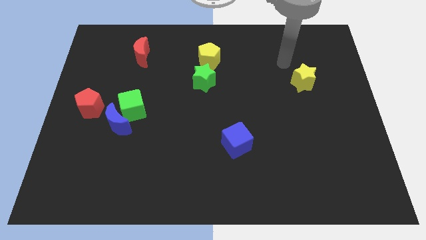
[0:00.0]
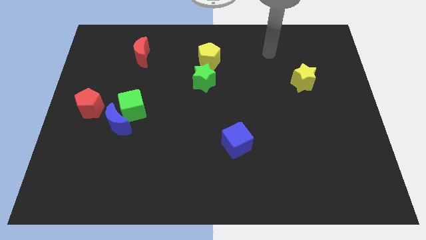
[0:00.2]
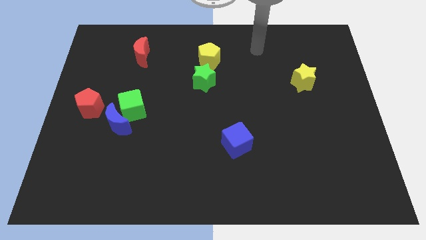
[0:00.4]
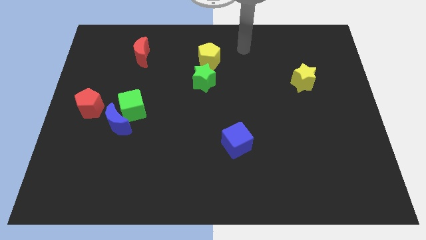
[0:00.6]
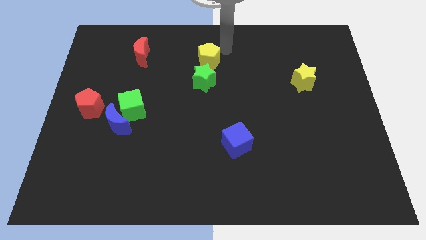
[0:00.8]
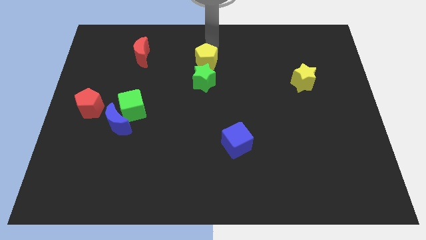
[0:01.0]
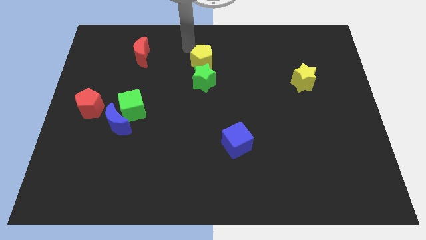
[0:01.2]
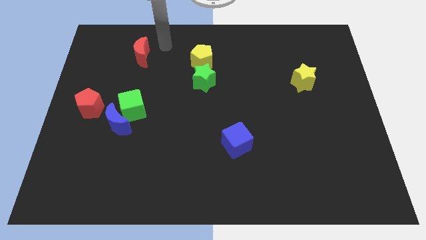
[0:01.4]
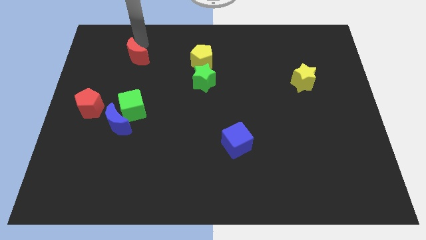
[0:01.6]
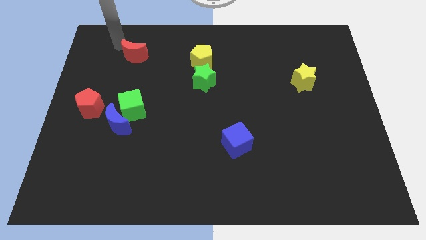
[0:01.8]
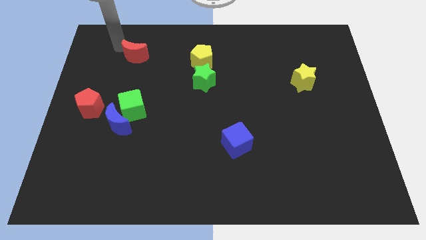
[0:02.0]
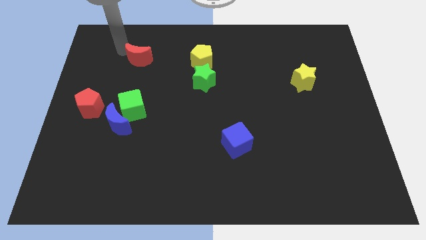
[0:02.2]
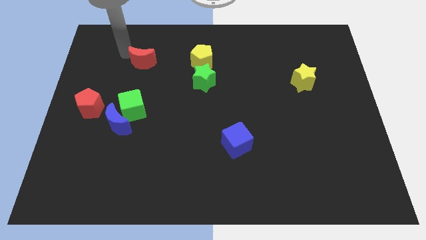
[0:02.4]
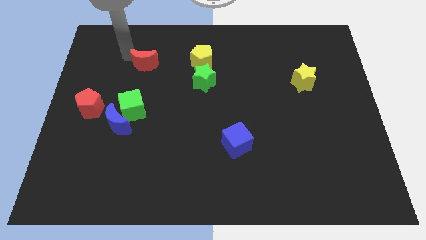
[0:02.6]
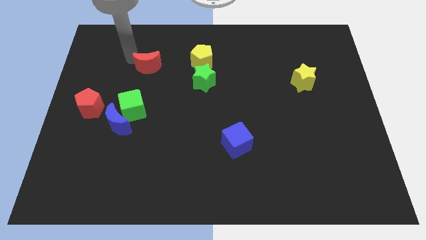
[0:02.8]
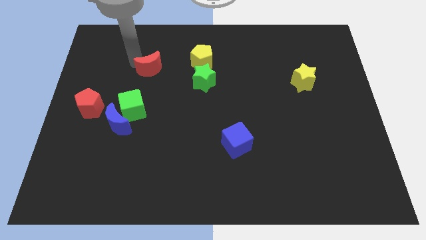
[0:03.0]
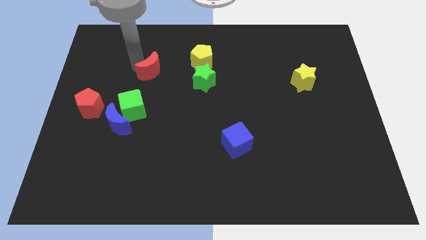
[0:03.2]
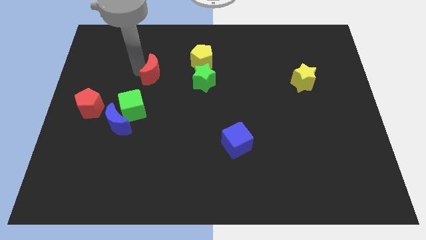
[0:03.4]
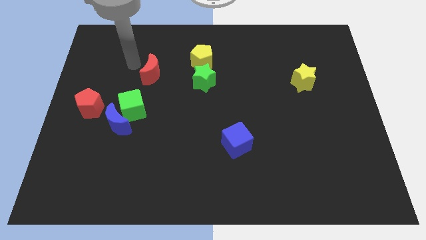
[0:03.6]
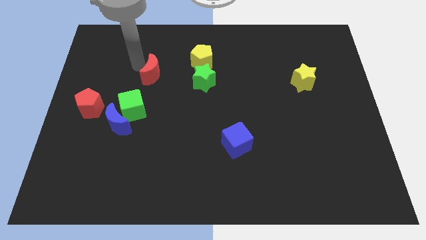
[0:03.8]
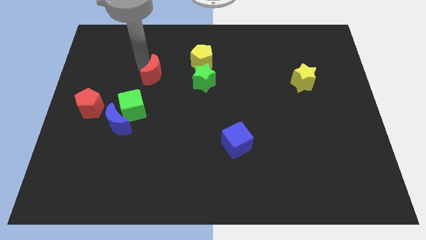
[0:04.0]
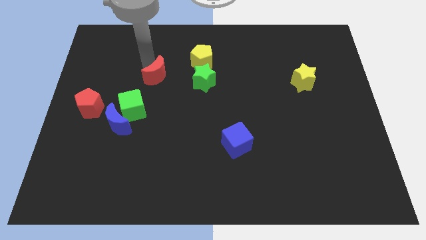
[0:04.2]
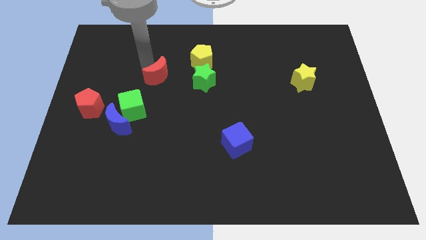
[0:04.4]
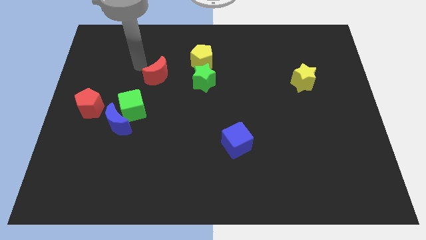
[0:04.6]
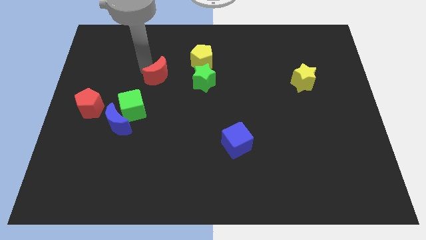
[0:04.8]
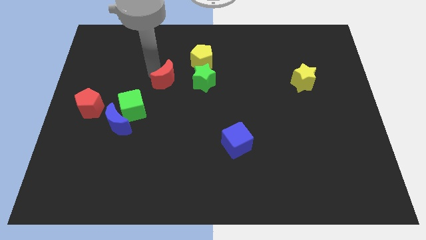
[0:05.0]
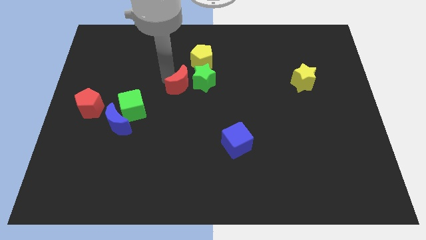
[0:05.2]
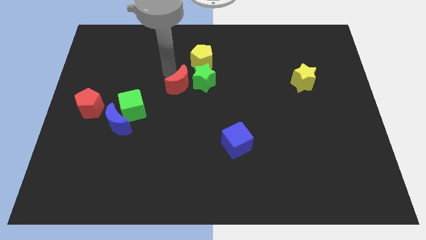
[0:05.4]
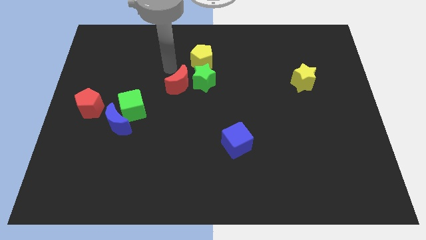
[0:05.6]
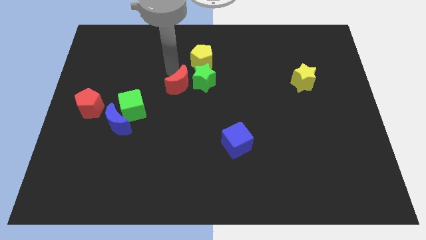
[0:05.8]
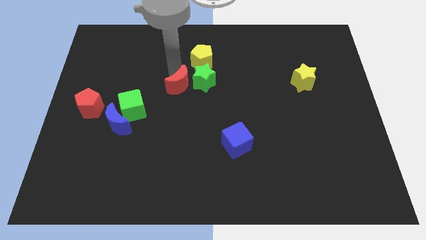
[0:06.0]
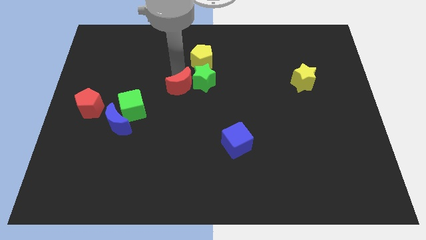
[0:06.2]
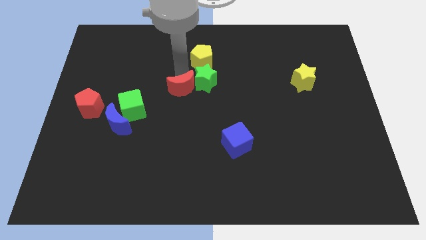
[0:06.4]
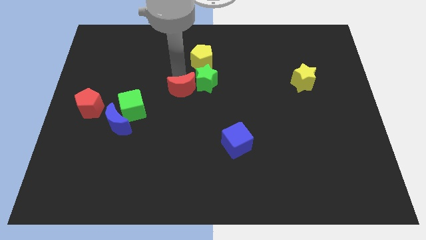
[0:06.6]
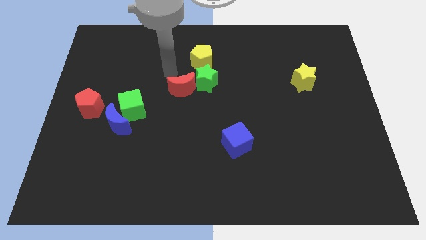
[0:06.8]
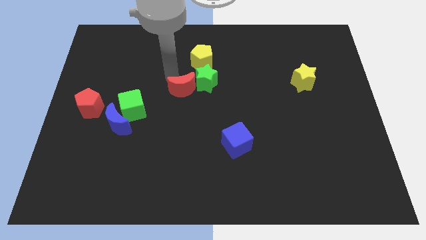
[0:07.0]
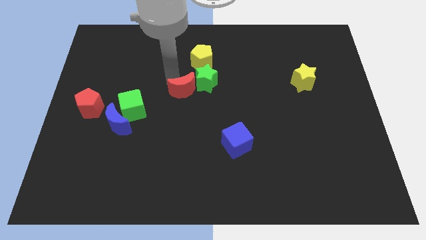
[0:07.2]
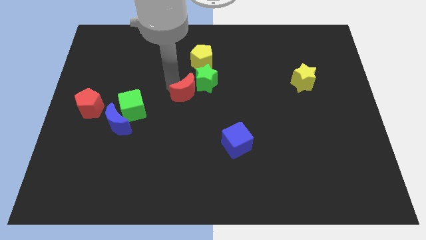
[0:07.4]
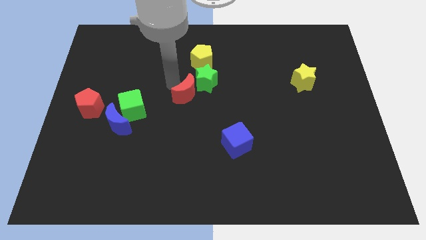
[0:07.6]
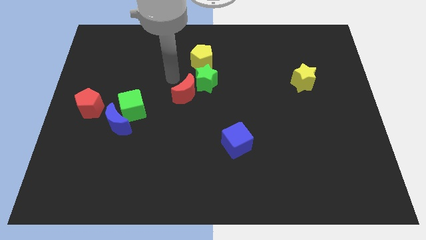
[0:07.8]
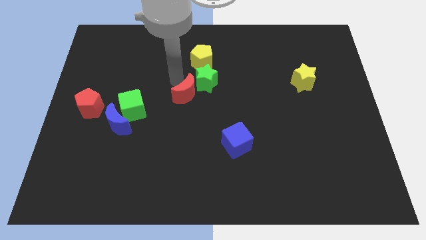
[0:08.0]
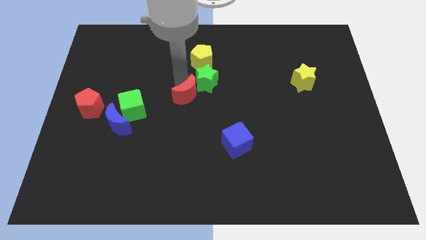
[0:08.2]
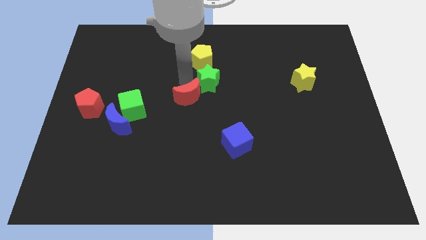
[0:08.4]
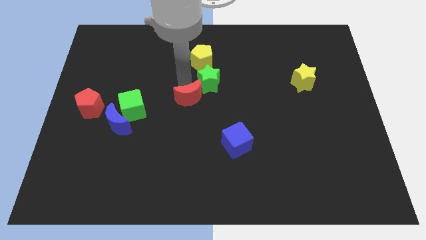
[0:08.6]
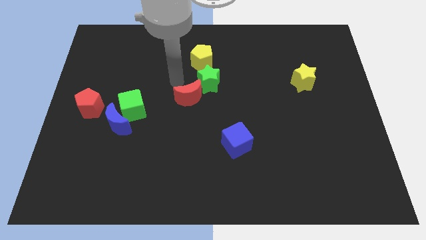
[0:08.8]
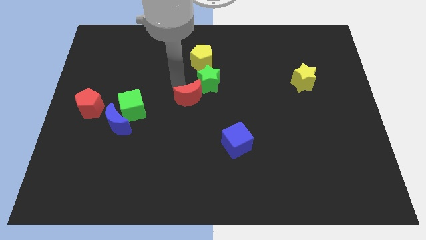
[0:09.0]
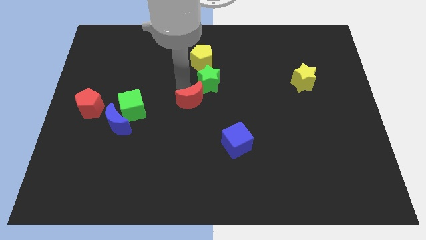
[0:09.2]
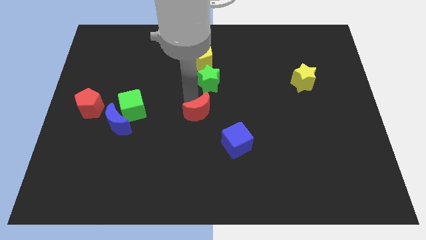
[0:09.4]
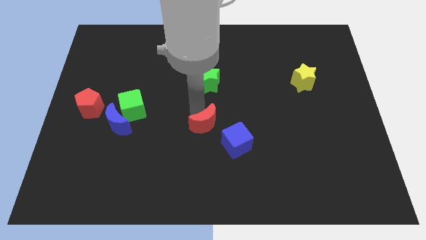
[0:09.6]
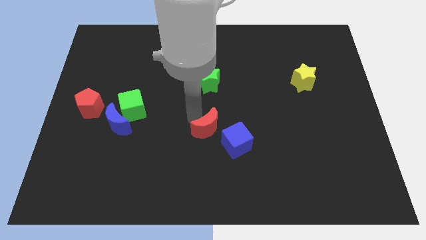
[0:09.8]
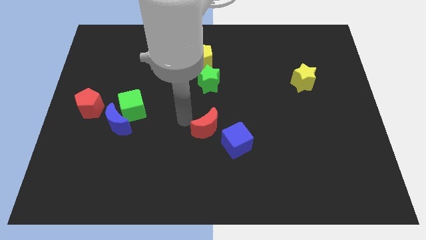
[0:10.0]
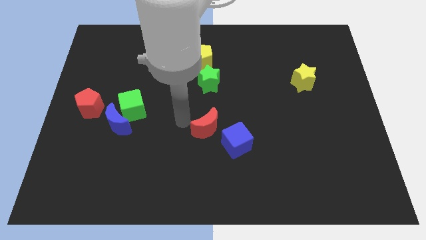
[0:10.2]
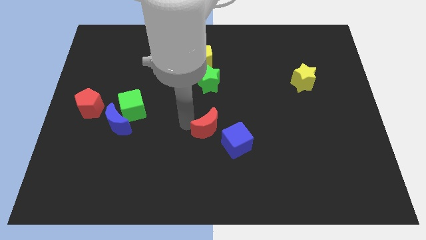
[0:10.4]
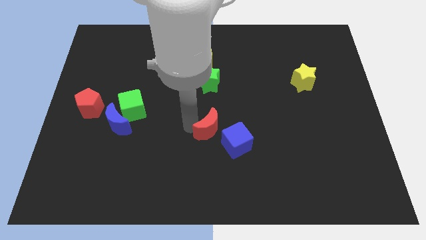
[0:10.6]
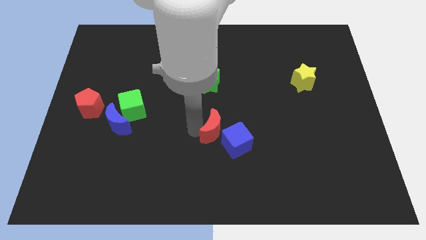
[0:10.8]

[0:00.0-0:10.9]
put the red moon to the blue cube

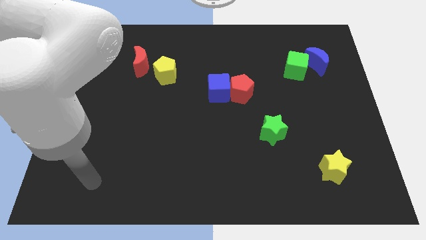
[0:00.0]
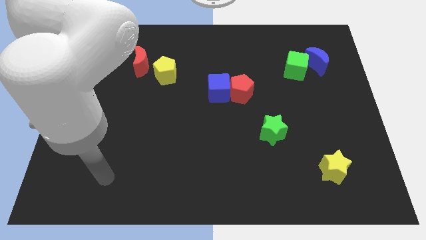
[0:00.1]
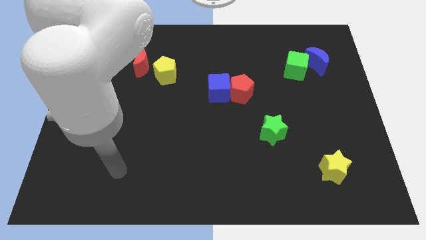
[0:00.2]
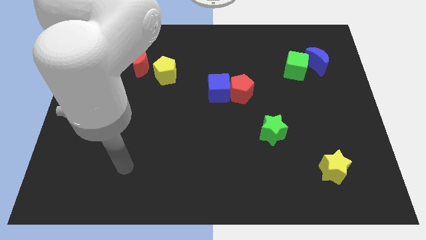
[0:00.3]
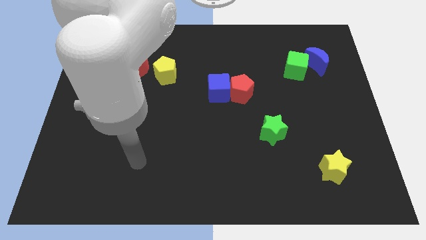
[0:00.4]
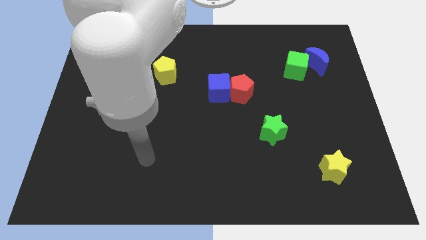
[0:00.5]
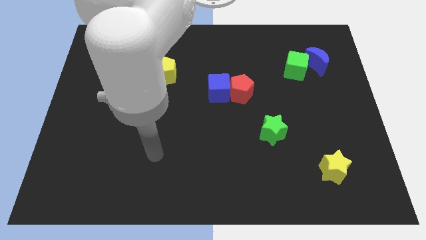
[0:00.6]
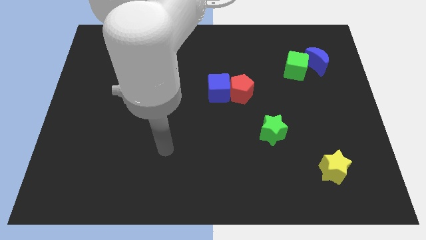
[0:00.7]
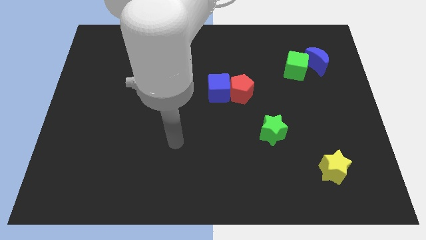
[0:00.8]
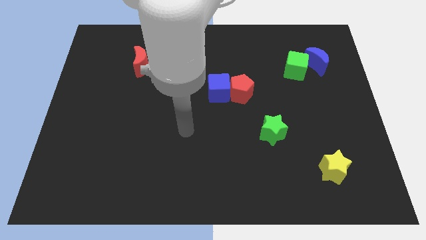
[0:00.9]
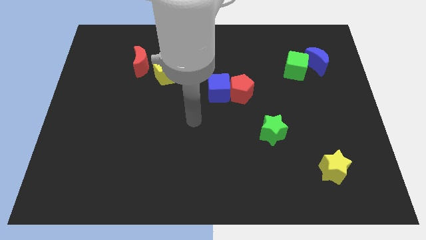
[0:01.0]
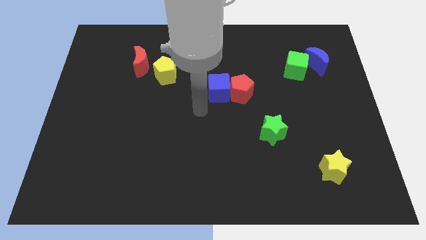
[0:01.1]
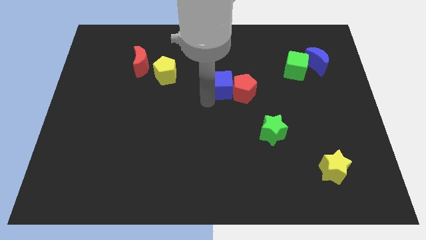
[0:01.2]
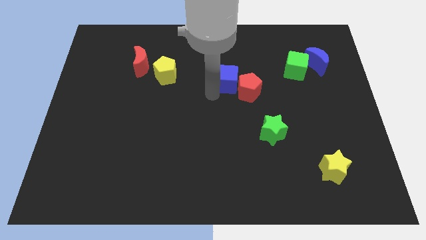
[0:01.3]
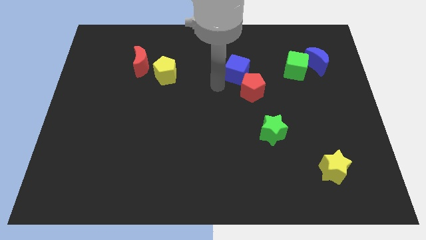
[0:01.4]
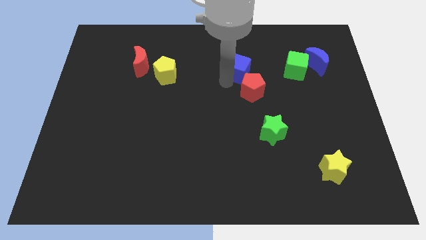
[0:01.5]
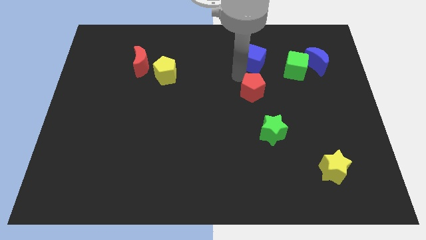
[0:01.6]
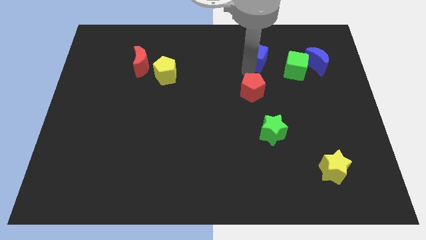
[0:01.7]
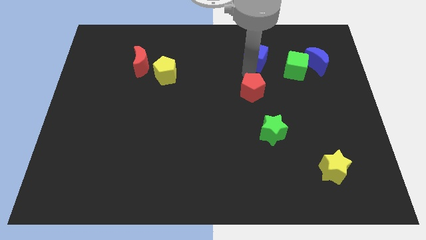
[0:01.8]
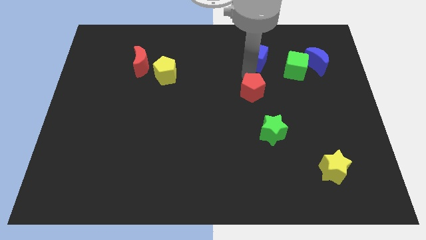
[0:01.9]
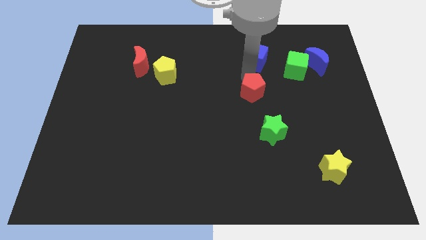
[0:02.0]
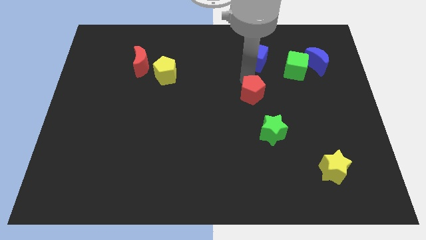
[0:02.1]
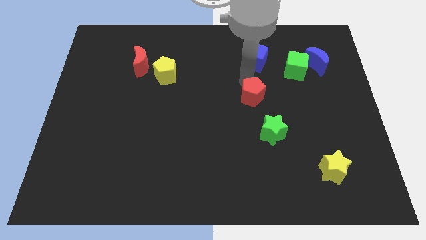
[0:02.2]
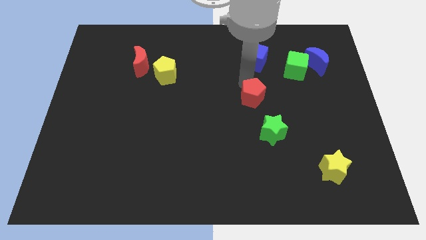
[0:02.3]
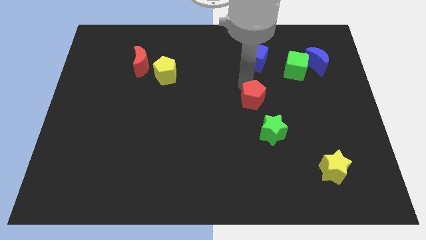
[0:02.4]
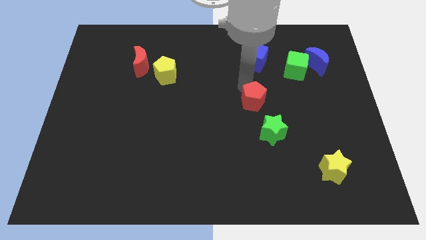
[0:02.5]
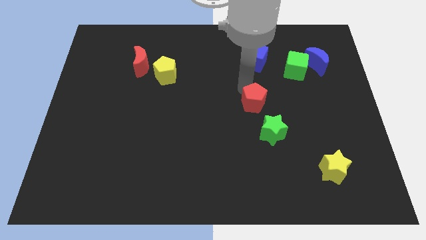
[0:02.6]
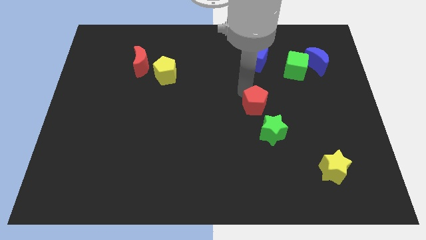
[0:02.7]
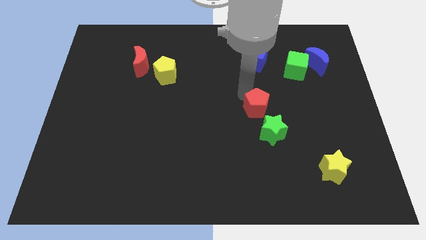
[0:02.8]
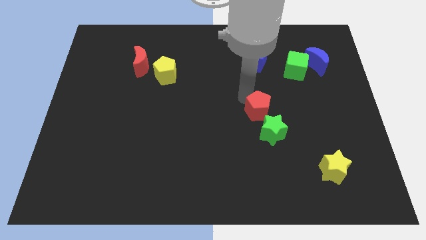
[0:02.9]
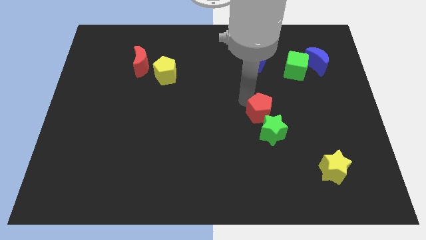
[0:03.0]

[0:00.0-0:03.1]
push the red pentagon to the green star
